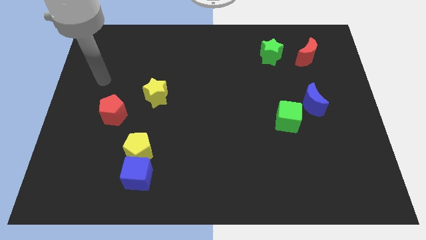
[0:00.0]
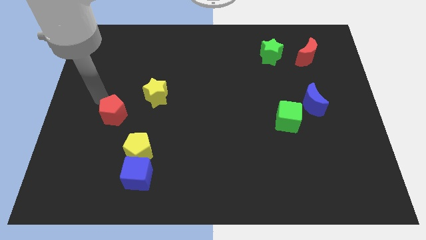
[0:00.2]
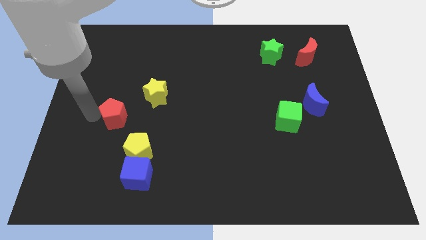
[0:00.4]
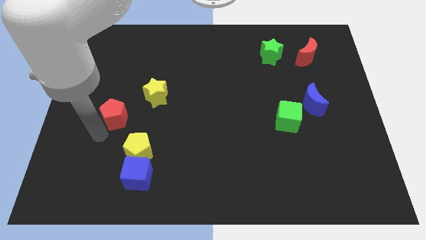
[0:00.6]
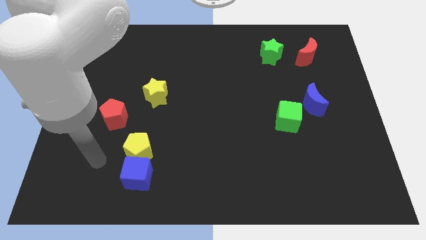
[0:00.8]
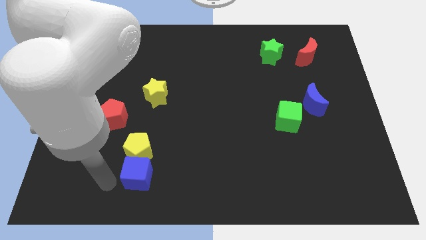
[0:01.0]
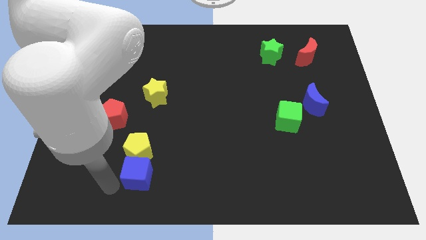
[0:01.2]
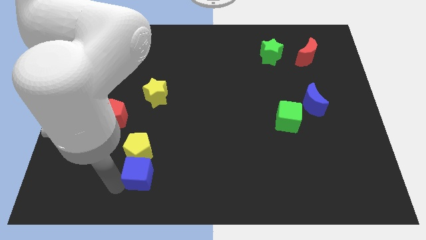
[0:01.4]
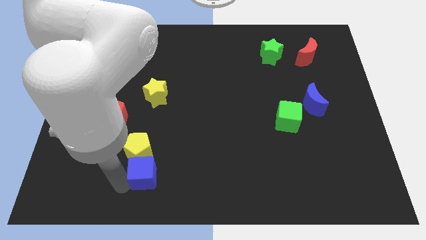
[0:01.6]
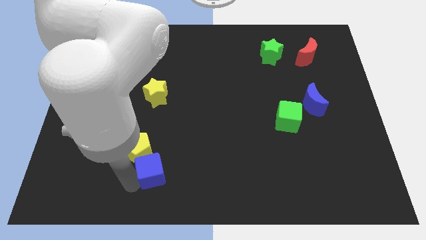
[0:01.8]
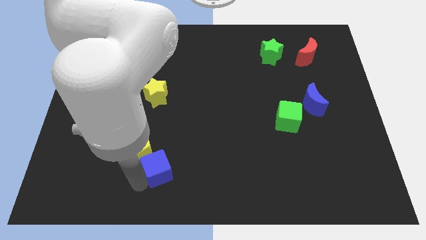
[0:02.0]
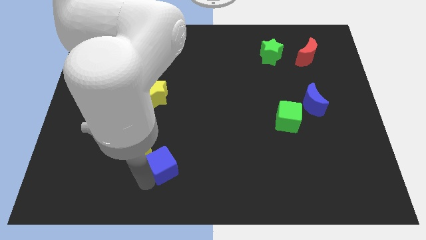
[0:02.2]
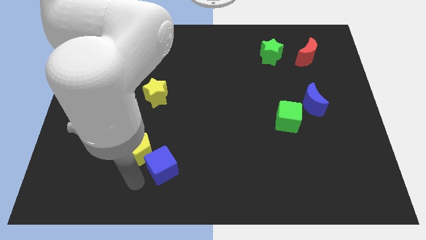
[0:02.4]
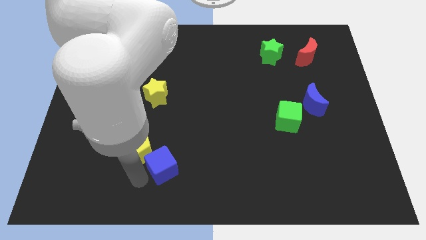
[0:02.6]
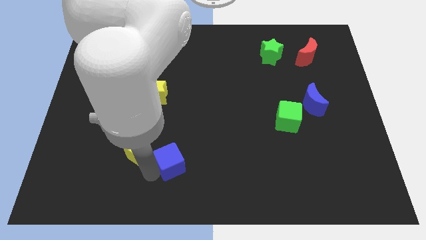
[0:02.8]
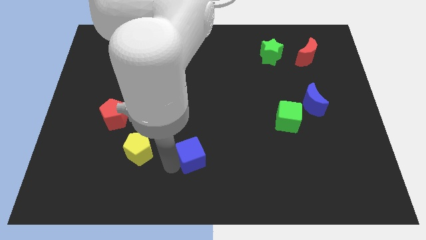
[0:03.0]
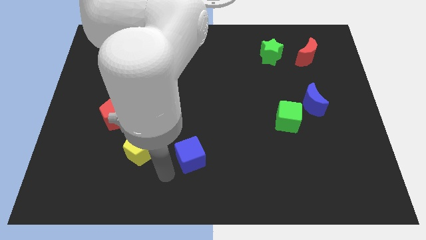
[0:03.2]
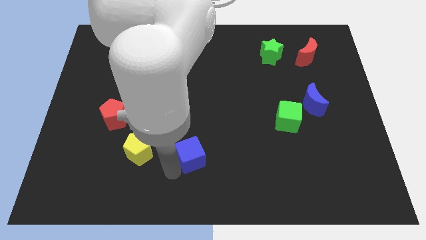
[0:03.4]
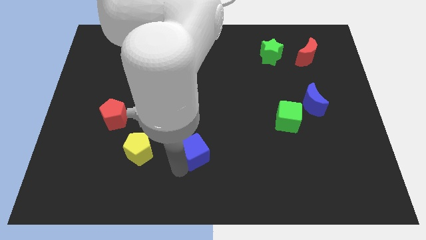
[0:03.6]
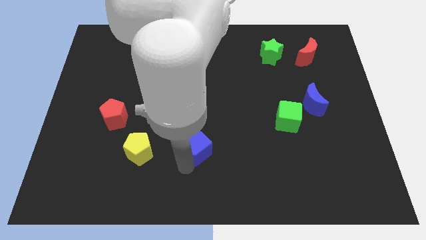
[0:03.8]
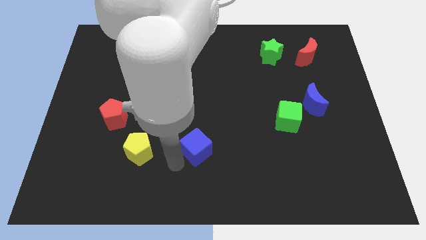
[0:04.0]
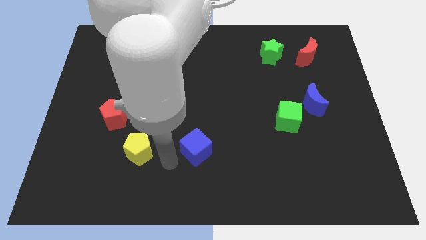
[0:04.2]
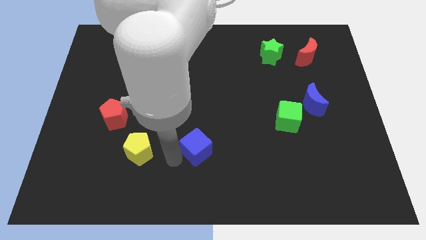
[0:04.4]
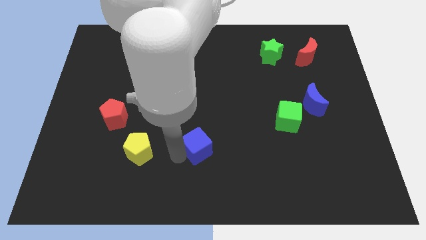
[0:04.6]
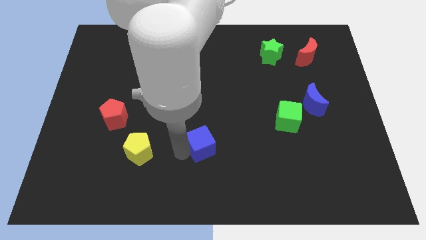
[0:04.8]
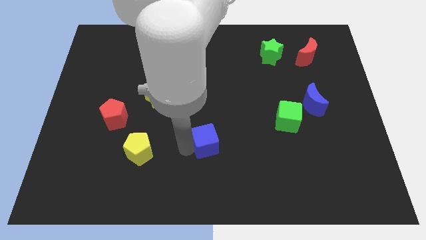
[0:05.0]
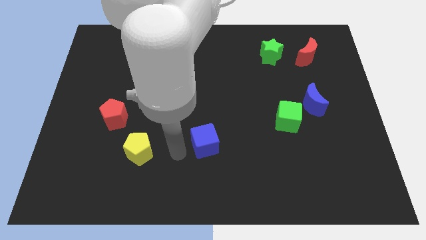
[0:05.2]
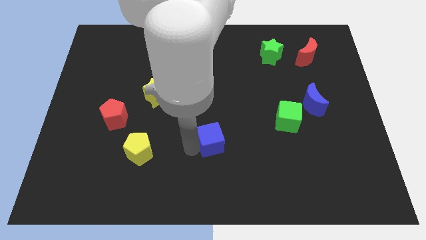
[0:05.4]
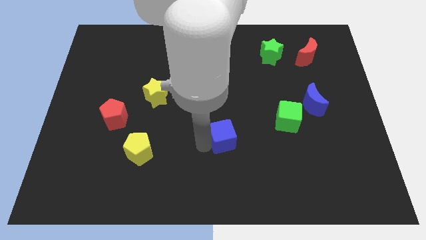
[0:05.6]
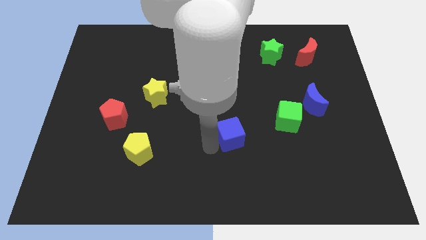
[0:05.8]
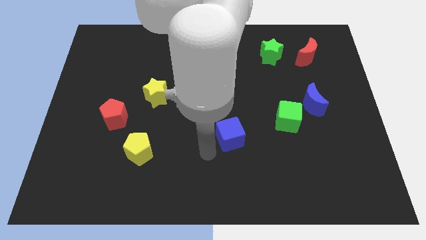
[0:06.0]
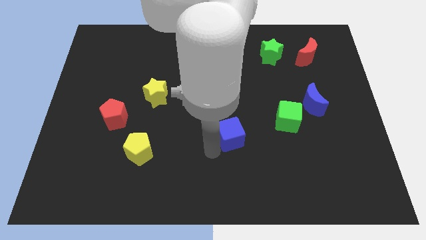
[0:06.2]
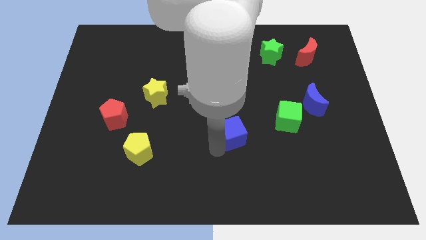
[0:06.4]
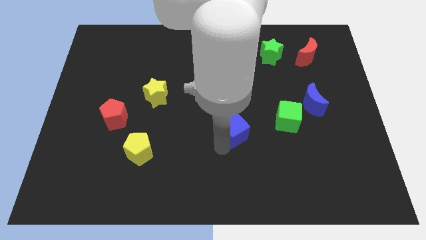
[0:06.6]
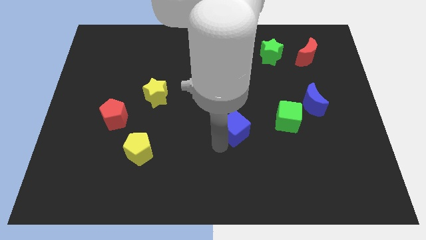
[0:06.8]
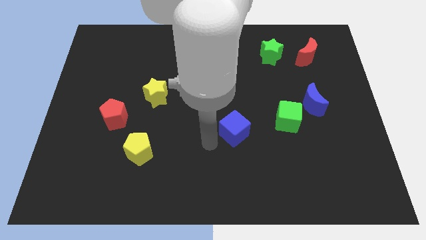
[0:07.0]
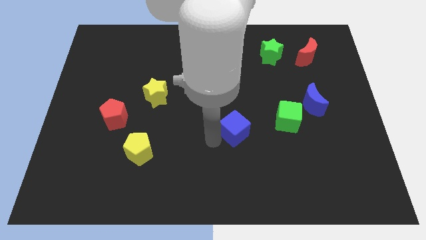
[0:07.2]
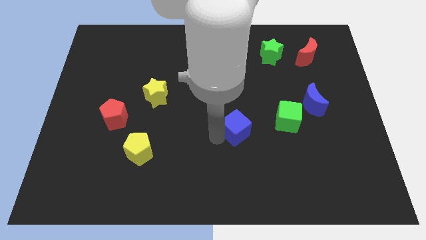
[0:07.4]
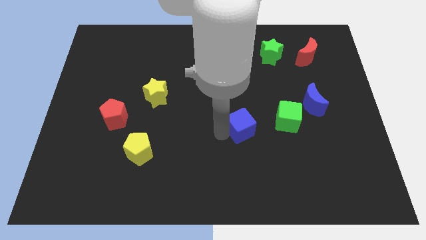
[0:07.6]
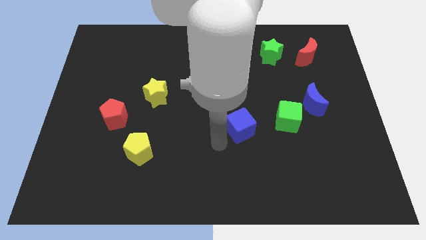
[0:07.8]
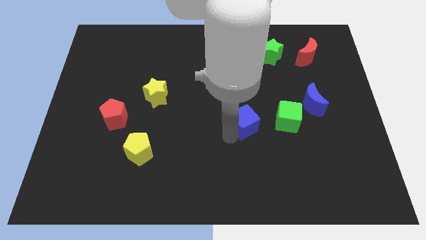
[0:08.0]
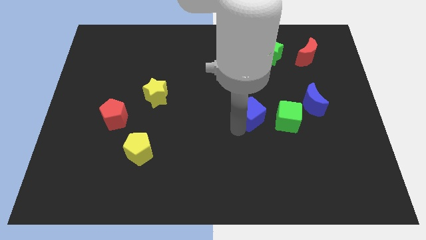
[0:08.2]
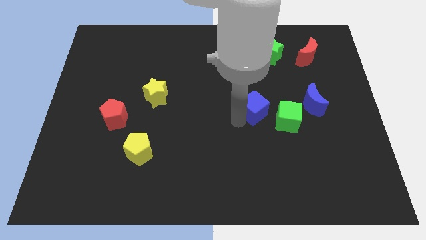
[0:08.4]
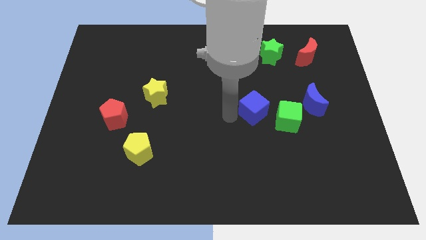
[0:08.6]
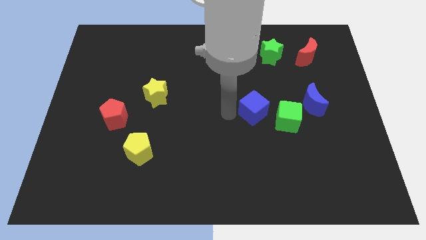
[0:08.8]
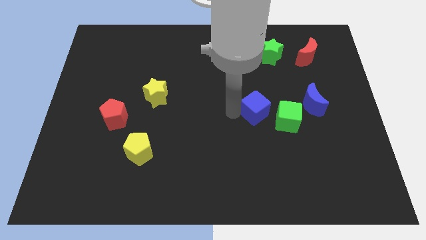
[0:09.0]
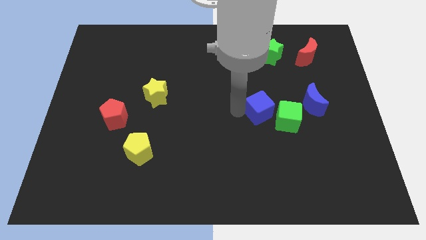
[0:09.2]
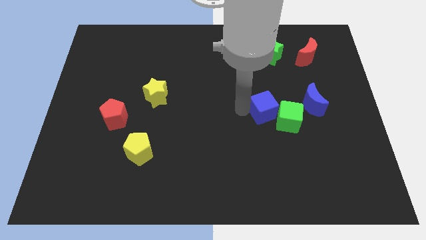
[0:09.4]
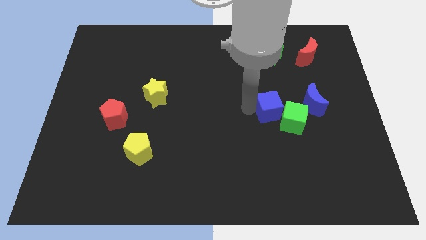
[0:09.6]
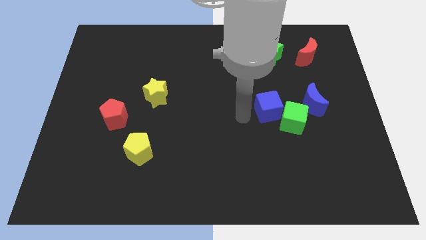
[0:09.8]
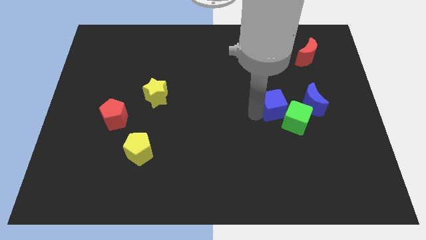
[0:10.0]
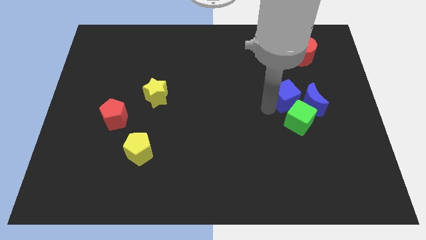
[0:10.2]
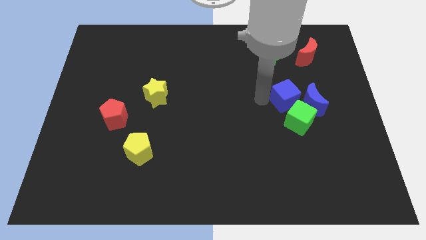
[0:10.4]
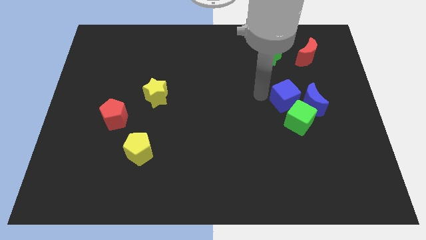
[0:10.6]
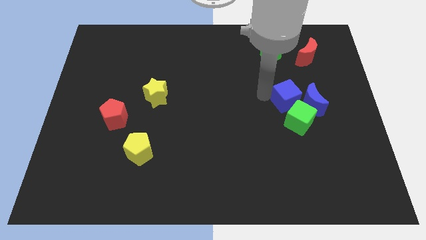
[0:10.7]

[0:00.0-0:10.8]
put the blue cube towards the blue moon

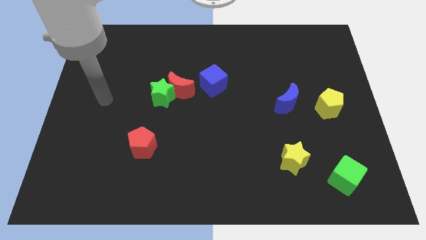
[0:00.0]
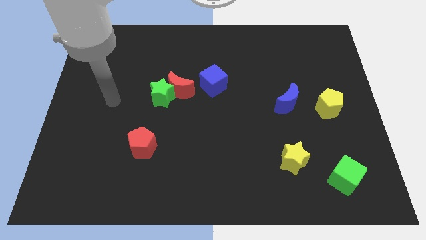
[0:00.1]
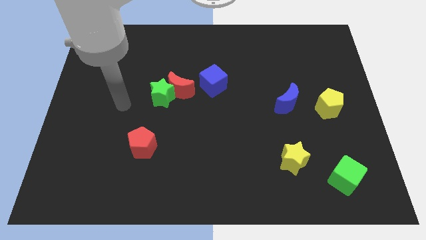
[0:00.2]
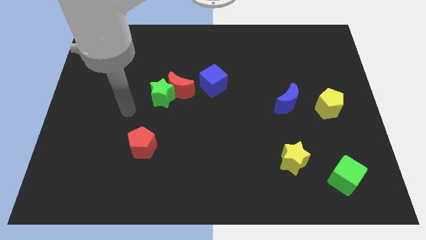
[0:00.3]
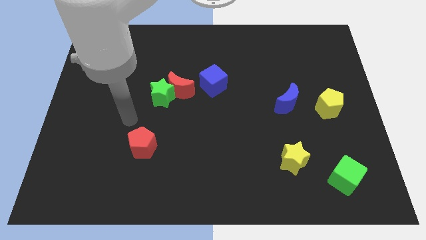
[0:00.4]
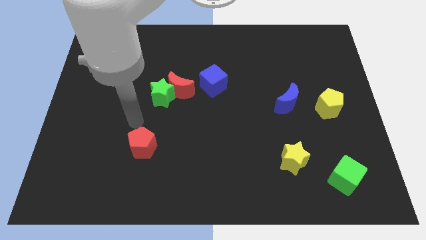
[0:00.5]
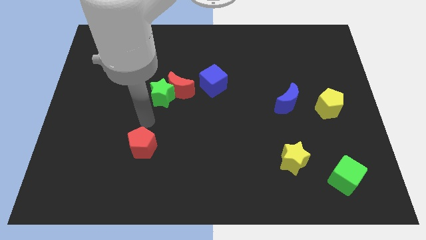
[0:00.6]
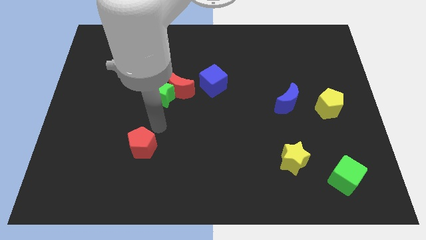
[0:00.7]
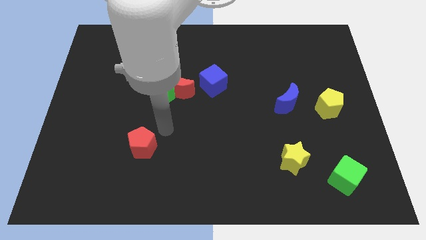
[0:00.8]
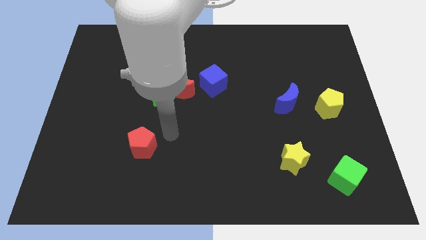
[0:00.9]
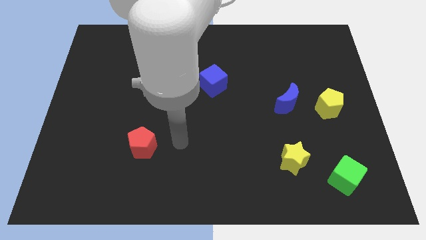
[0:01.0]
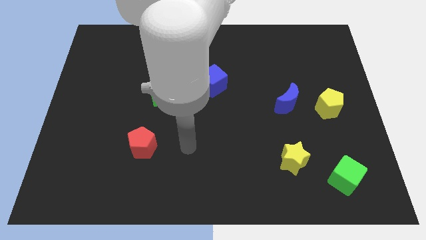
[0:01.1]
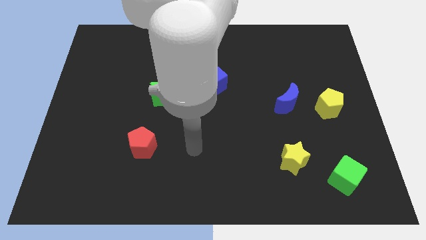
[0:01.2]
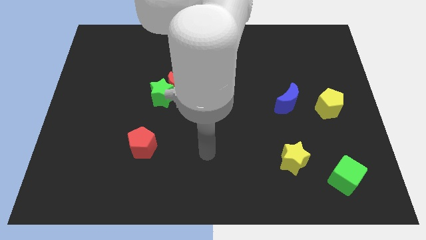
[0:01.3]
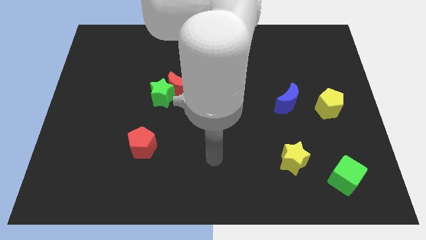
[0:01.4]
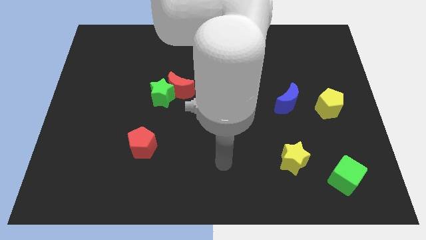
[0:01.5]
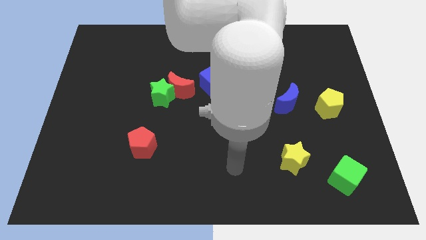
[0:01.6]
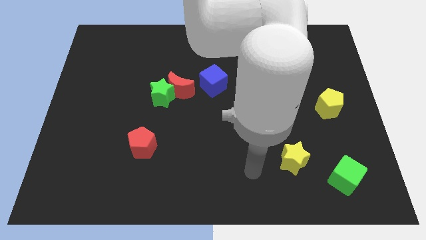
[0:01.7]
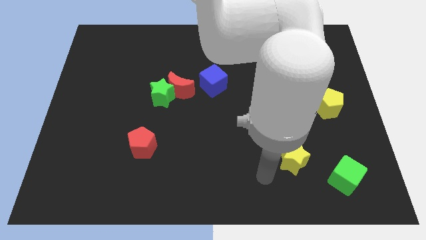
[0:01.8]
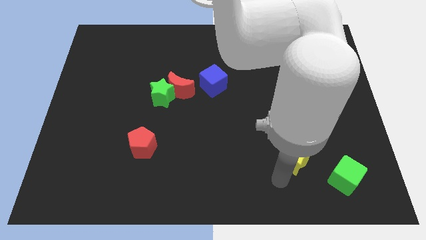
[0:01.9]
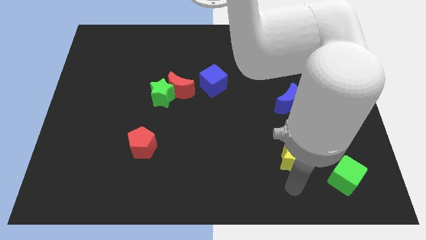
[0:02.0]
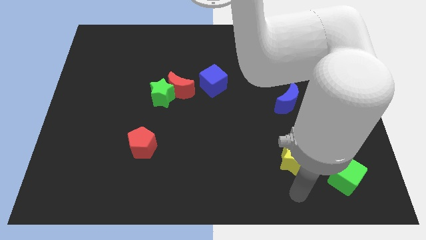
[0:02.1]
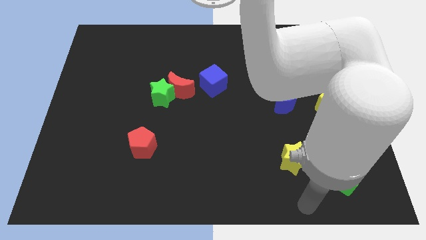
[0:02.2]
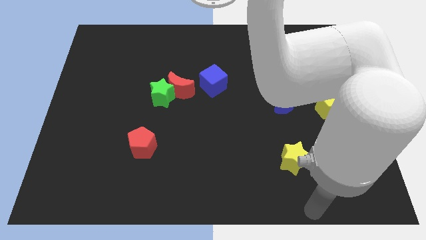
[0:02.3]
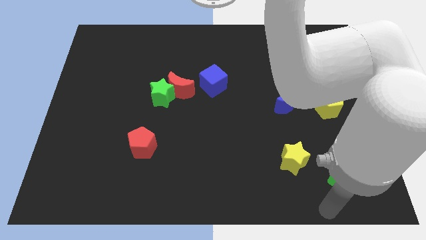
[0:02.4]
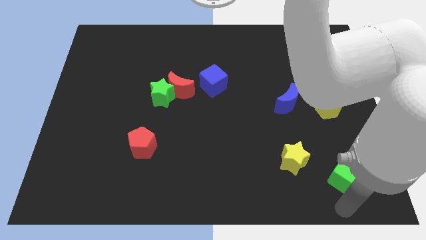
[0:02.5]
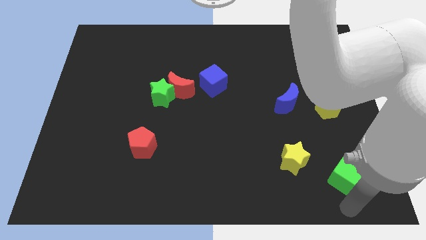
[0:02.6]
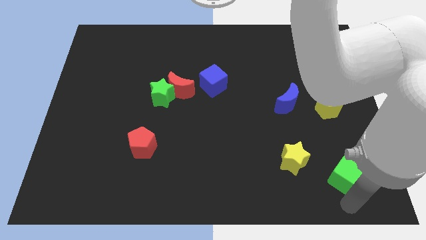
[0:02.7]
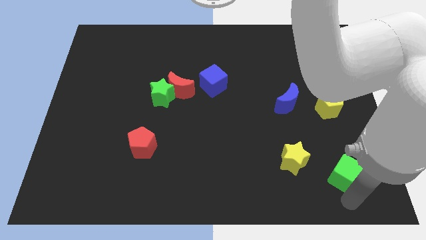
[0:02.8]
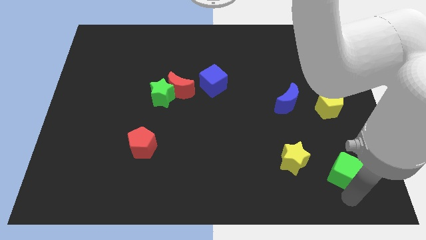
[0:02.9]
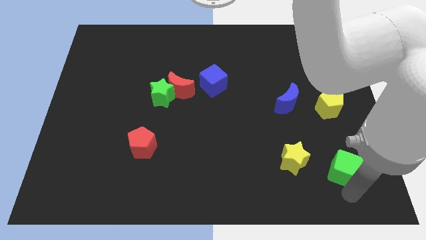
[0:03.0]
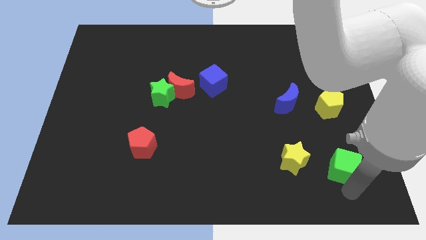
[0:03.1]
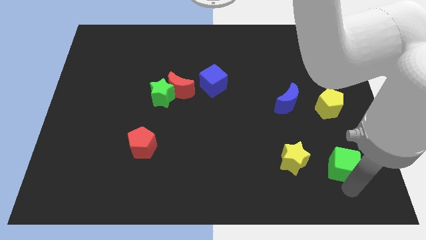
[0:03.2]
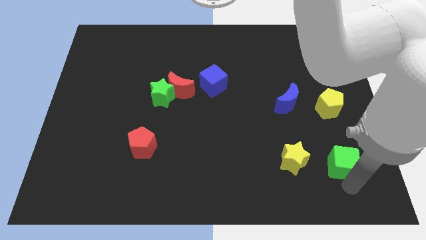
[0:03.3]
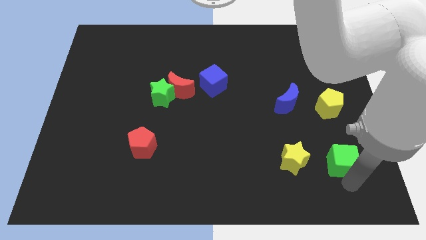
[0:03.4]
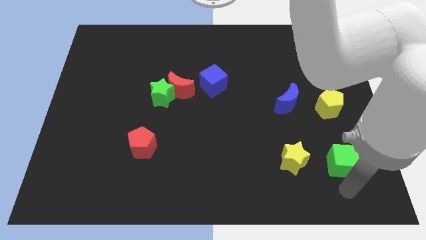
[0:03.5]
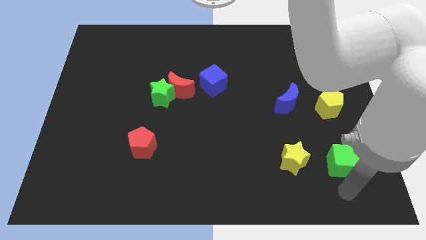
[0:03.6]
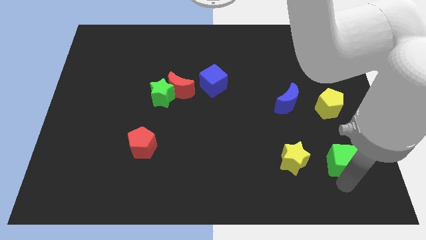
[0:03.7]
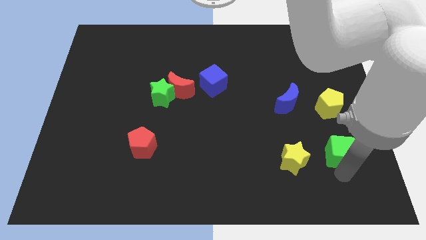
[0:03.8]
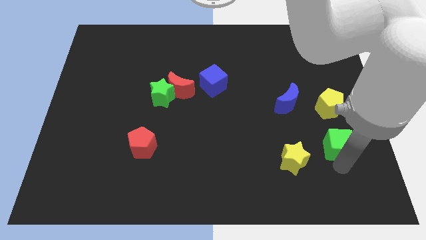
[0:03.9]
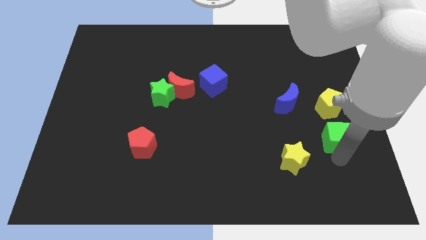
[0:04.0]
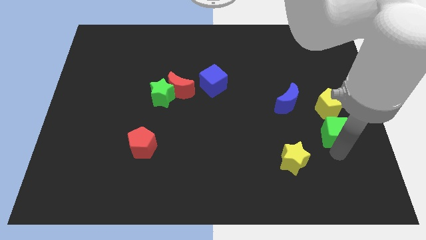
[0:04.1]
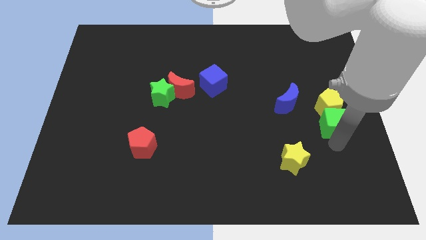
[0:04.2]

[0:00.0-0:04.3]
move the green cube to the yellow pentagon
